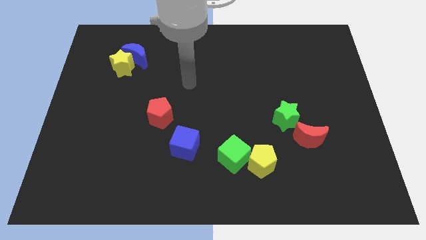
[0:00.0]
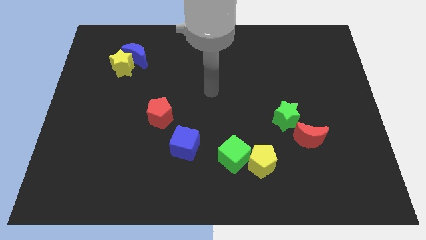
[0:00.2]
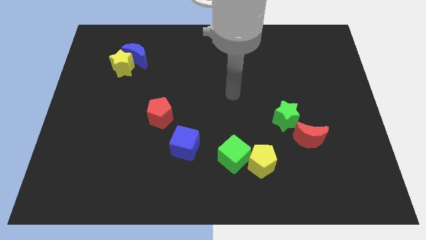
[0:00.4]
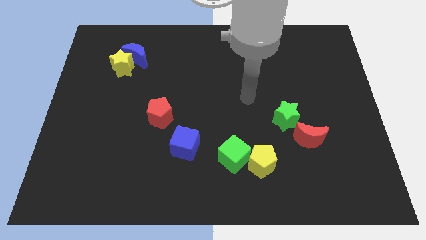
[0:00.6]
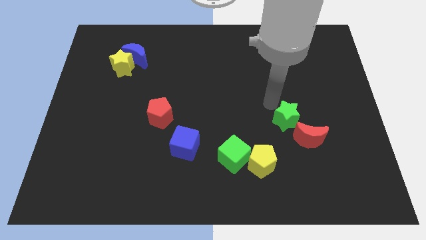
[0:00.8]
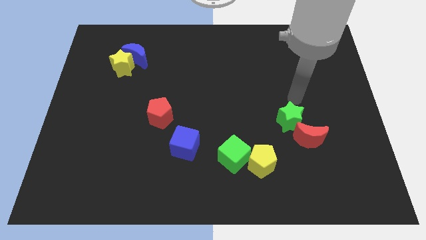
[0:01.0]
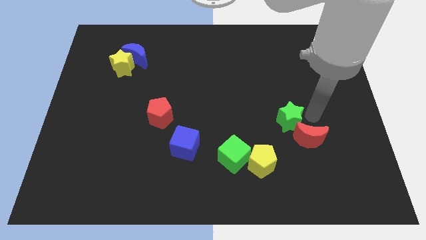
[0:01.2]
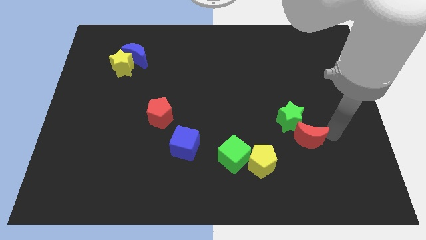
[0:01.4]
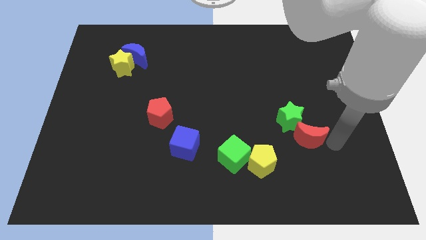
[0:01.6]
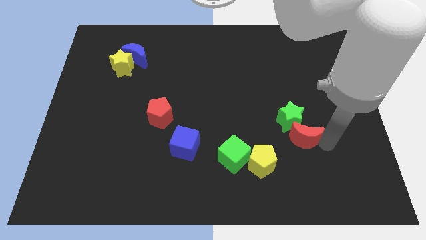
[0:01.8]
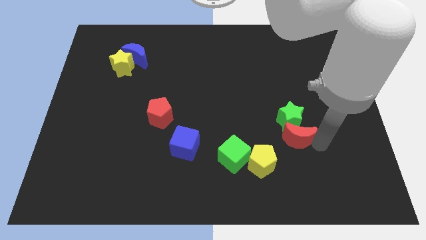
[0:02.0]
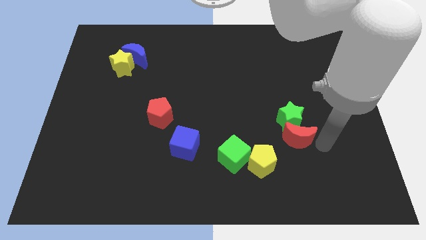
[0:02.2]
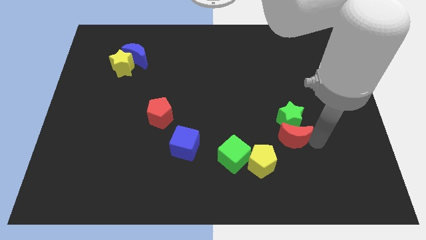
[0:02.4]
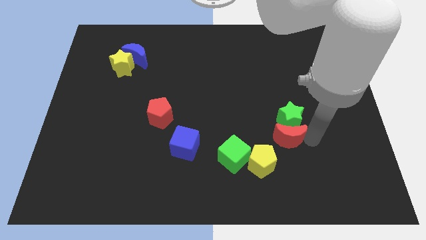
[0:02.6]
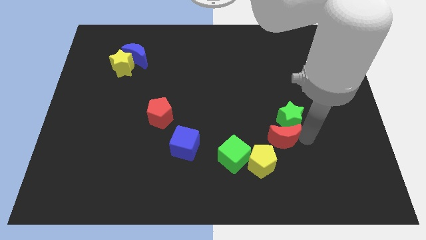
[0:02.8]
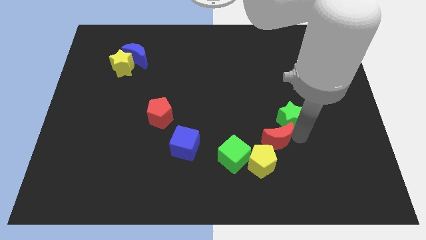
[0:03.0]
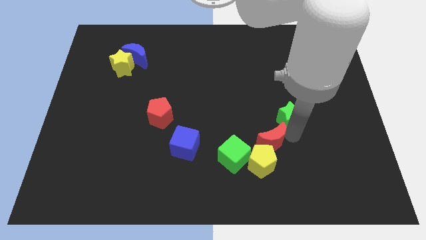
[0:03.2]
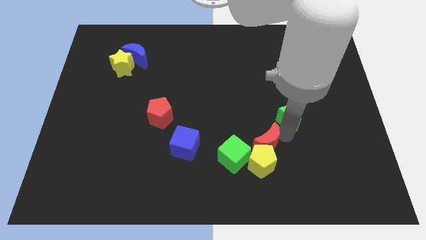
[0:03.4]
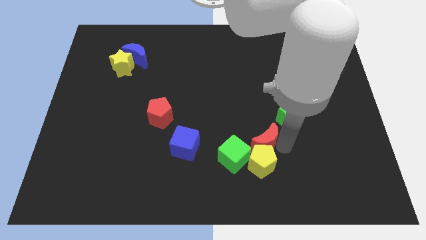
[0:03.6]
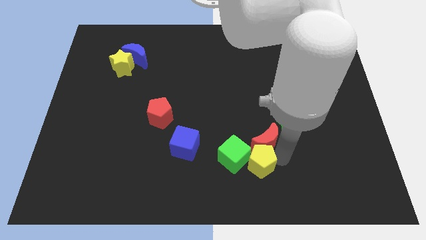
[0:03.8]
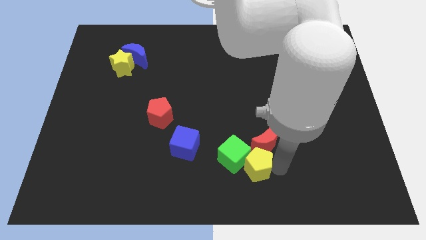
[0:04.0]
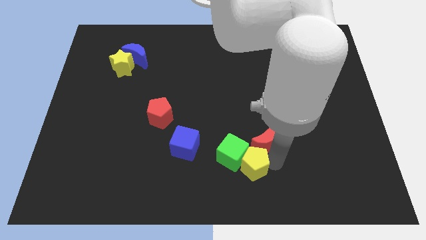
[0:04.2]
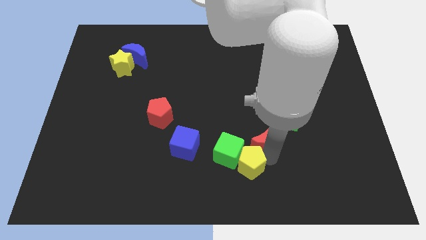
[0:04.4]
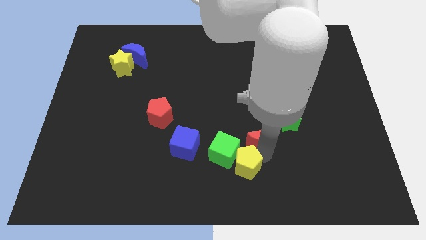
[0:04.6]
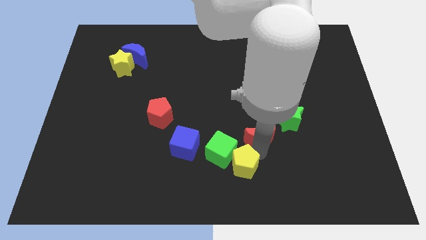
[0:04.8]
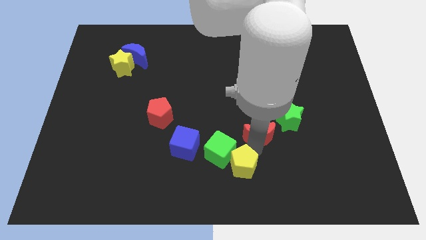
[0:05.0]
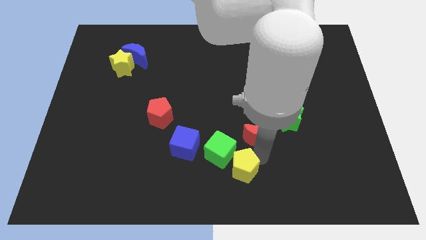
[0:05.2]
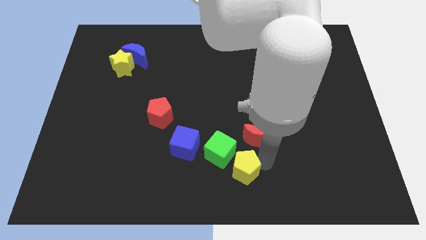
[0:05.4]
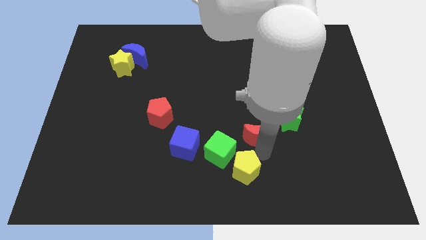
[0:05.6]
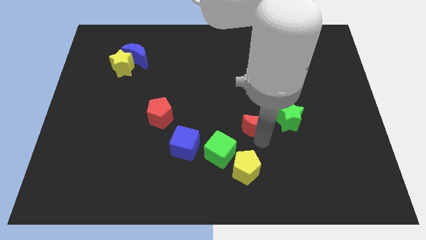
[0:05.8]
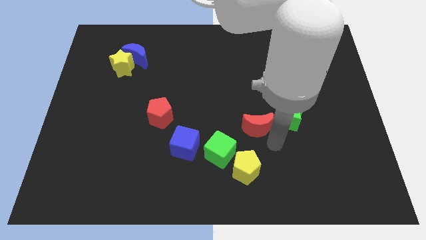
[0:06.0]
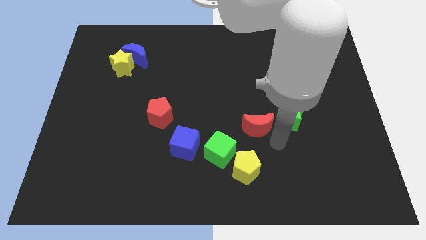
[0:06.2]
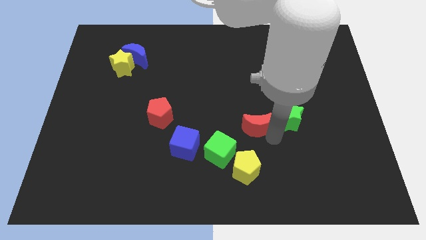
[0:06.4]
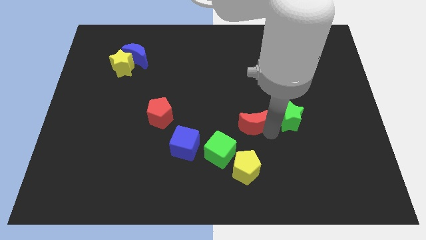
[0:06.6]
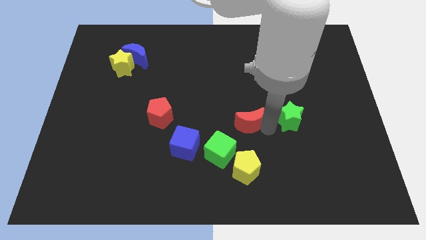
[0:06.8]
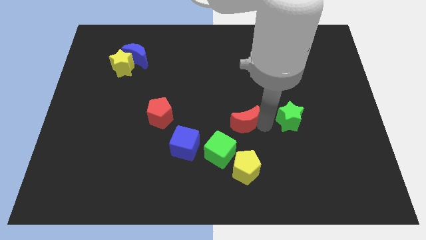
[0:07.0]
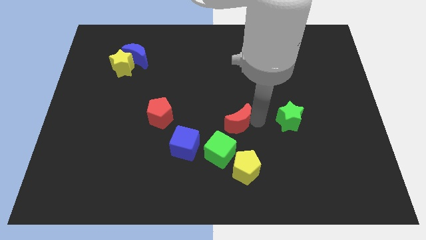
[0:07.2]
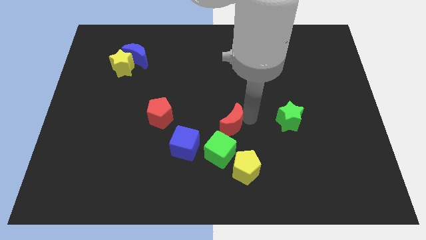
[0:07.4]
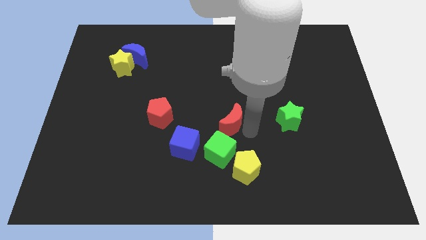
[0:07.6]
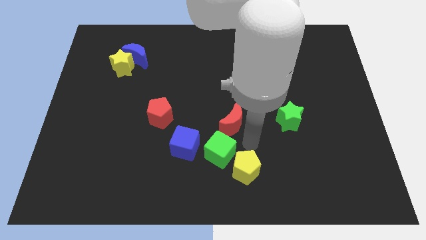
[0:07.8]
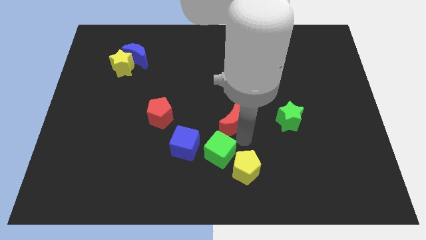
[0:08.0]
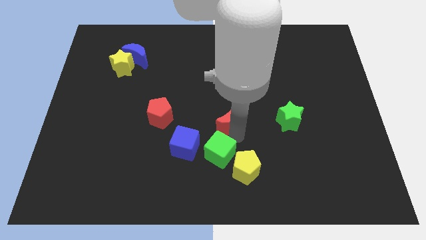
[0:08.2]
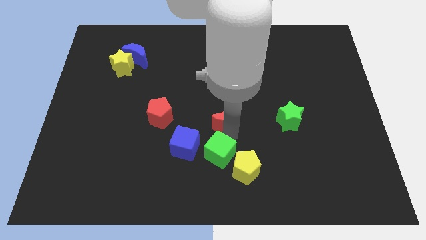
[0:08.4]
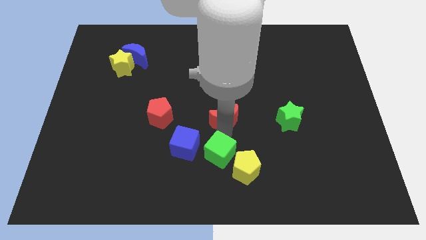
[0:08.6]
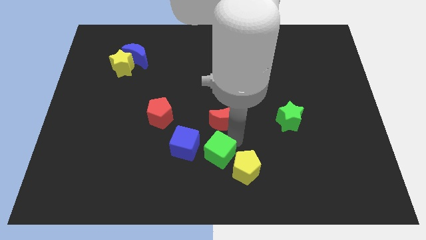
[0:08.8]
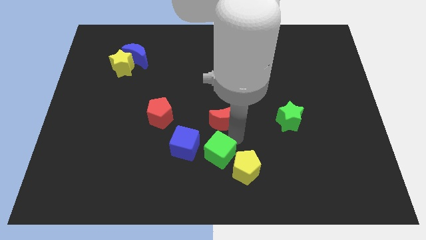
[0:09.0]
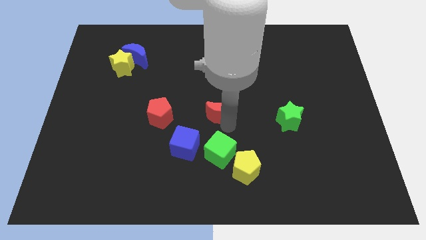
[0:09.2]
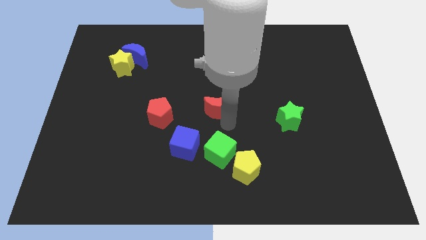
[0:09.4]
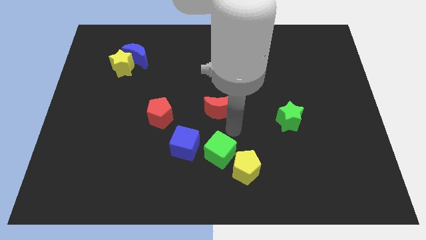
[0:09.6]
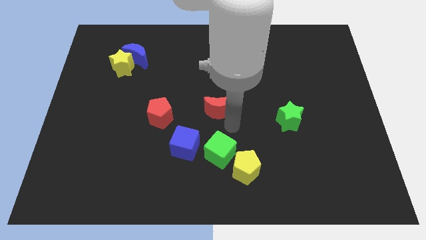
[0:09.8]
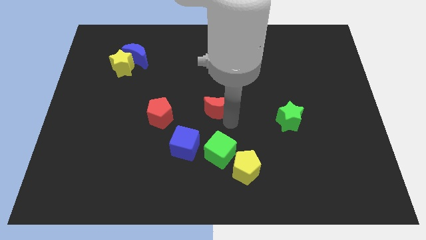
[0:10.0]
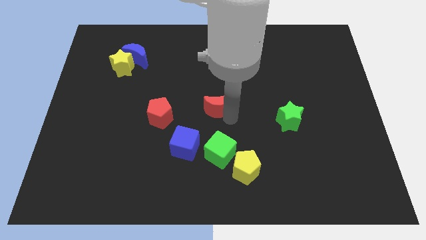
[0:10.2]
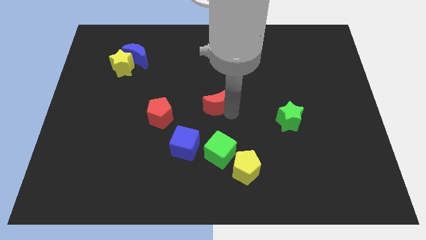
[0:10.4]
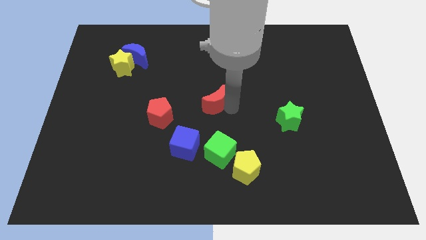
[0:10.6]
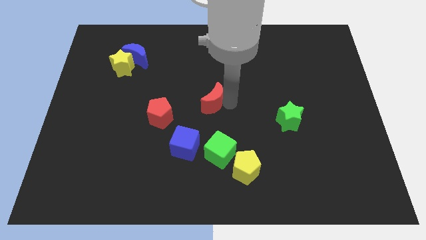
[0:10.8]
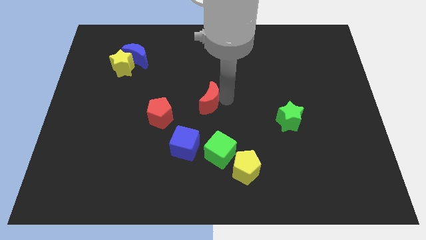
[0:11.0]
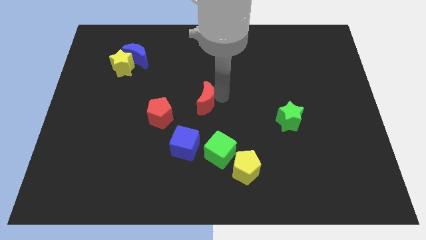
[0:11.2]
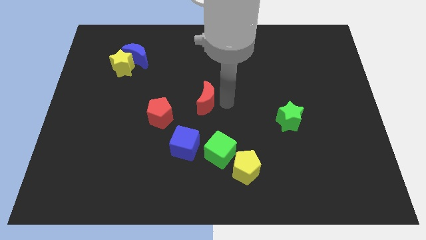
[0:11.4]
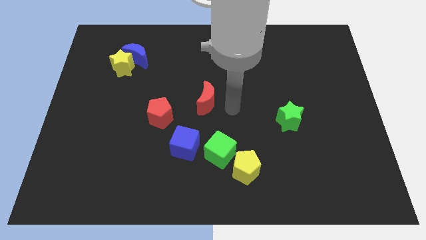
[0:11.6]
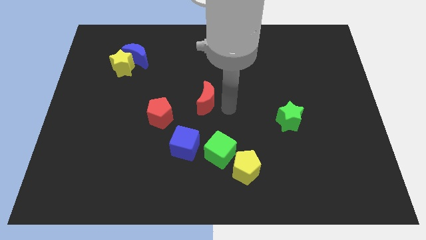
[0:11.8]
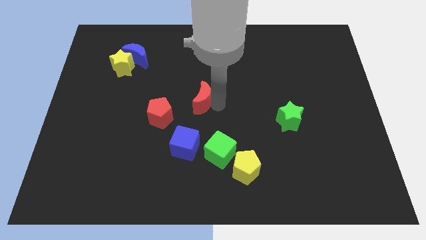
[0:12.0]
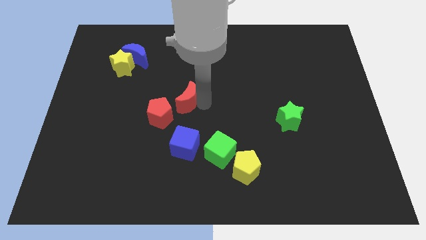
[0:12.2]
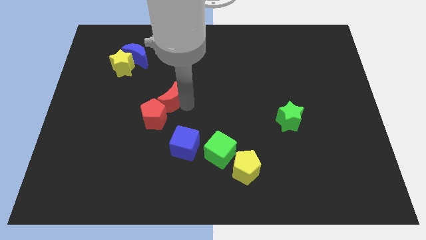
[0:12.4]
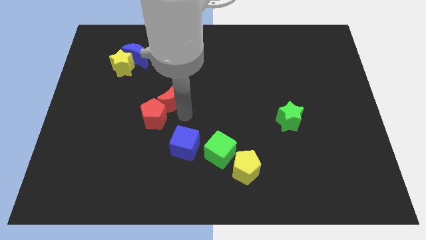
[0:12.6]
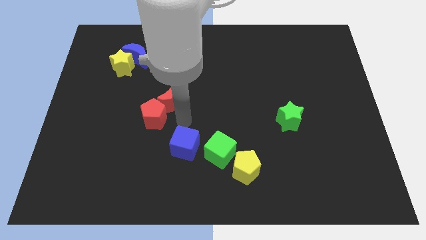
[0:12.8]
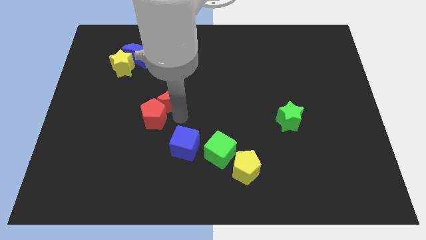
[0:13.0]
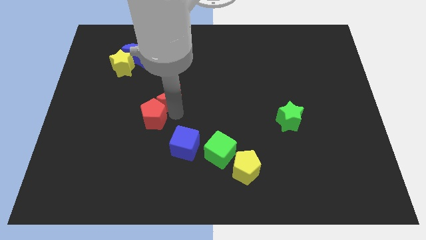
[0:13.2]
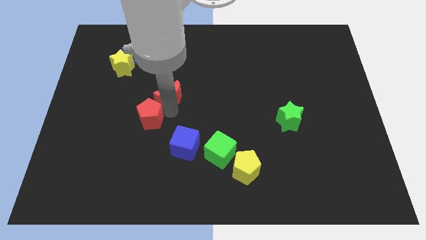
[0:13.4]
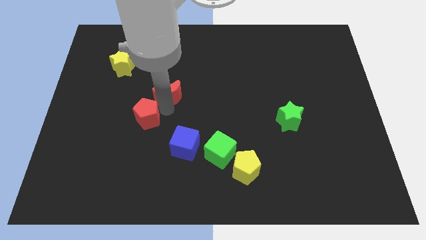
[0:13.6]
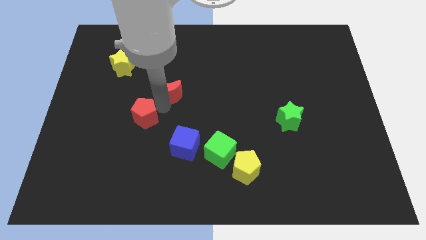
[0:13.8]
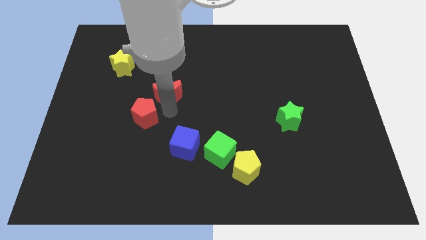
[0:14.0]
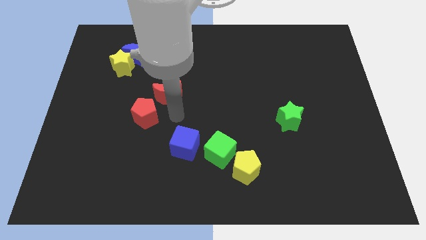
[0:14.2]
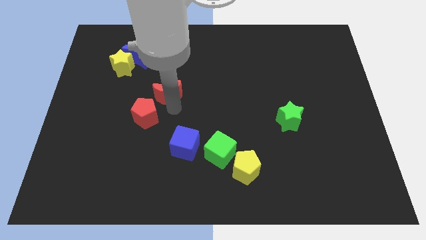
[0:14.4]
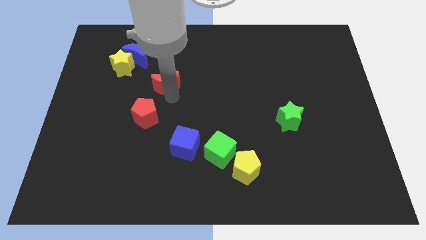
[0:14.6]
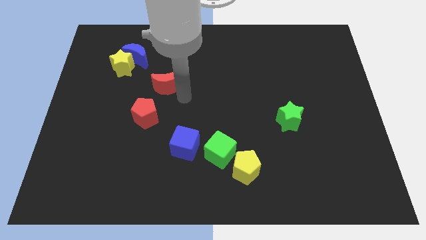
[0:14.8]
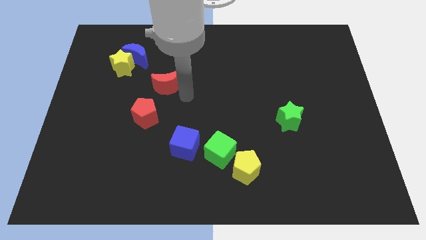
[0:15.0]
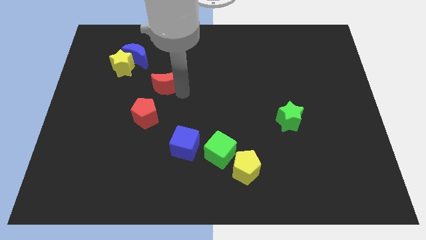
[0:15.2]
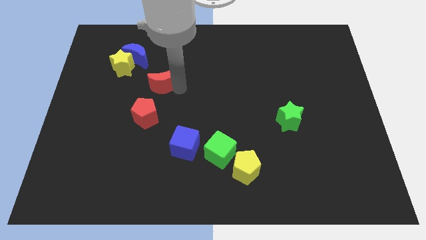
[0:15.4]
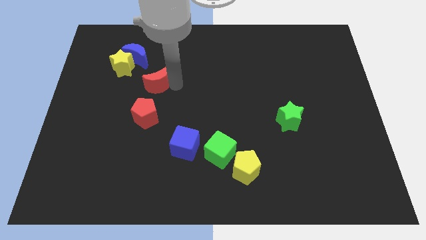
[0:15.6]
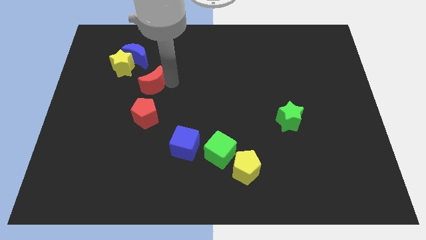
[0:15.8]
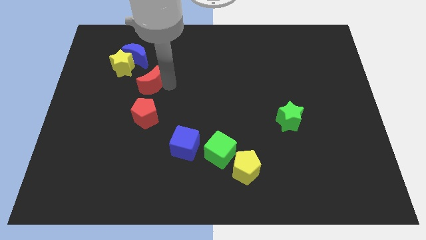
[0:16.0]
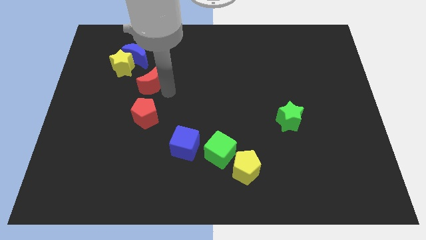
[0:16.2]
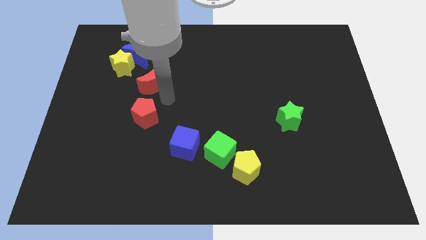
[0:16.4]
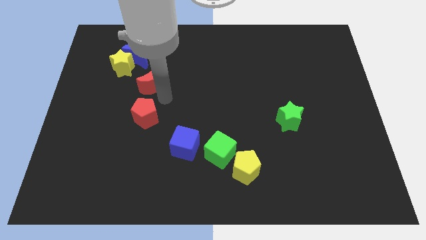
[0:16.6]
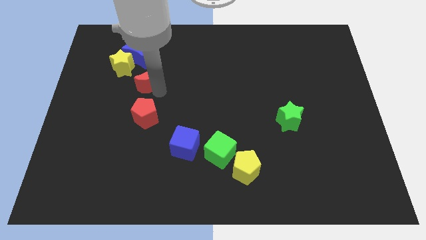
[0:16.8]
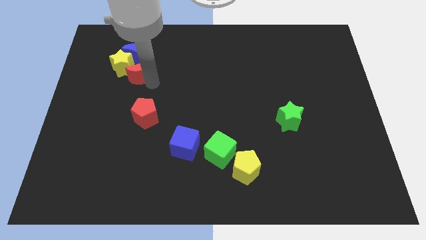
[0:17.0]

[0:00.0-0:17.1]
put the red moon close to the yellow star
